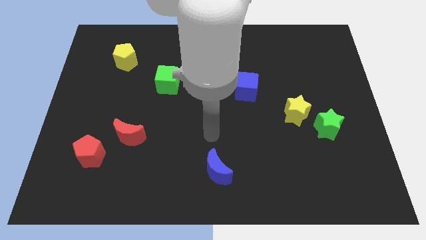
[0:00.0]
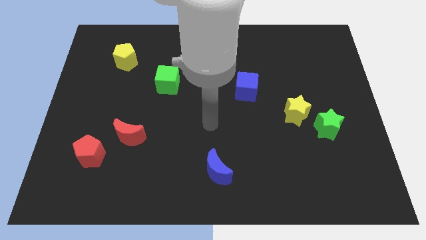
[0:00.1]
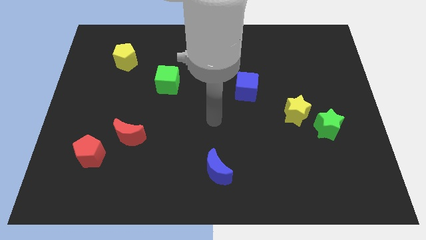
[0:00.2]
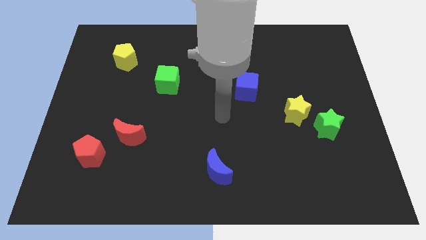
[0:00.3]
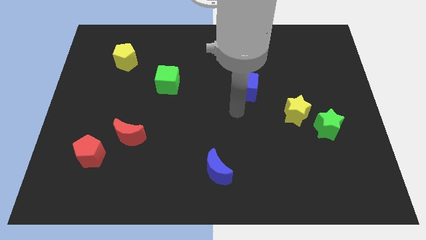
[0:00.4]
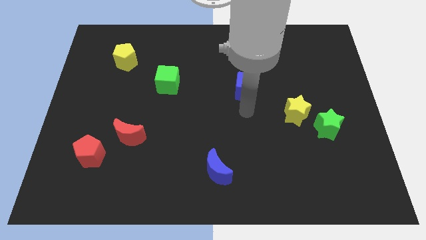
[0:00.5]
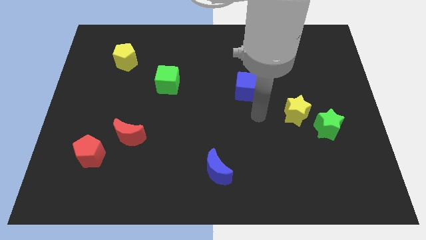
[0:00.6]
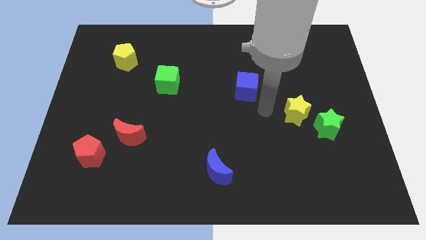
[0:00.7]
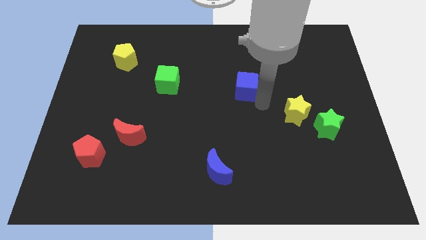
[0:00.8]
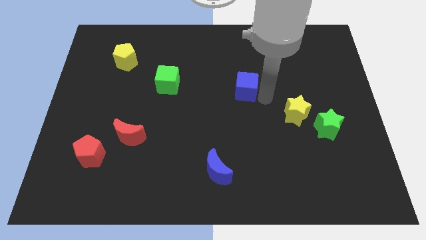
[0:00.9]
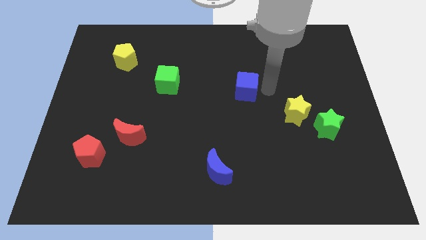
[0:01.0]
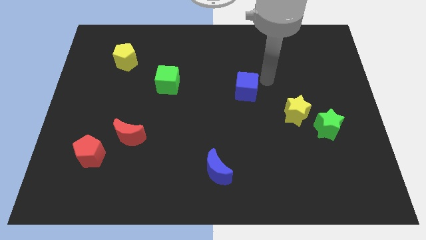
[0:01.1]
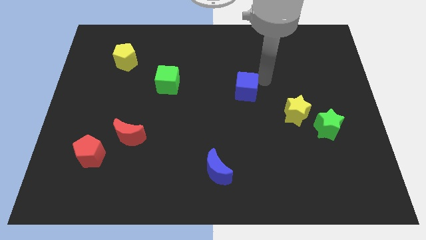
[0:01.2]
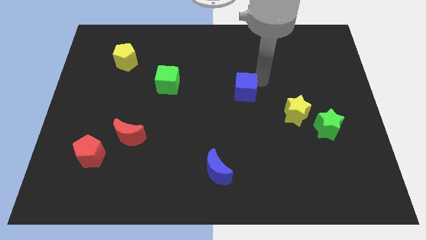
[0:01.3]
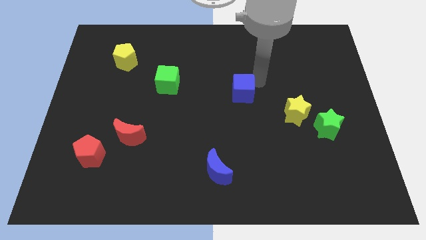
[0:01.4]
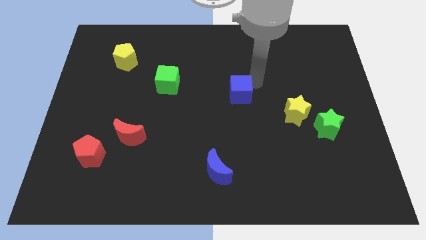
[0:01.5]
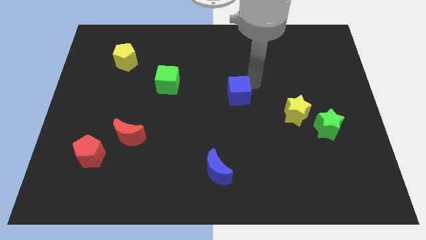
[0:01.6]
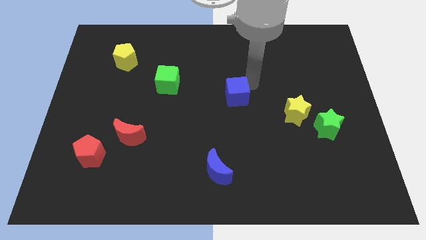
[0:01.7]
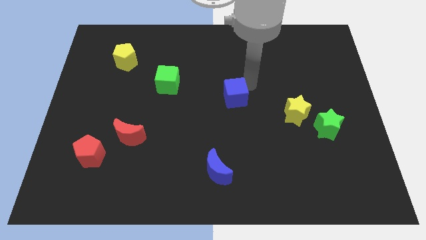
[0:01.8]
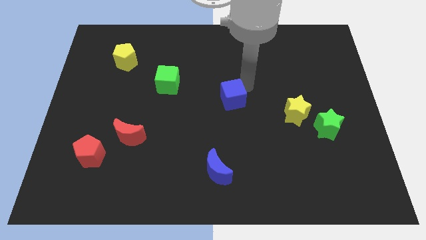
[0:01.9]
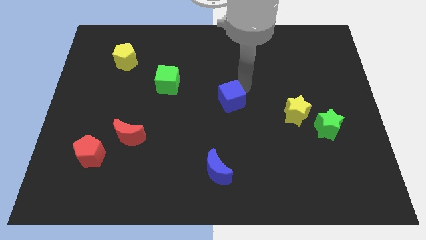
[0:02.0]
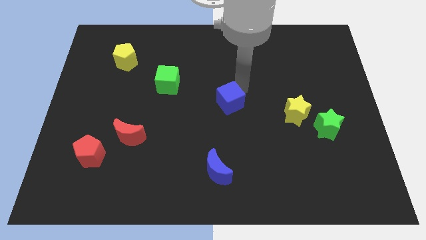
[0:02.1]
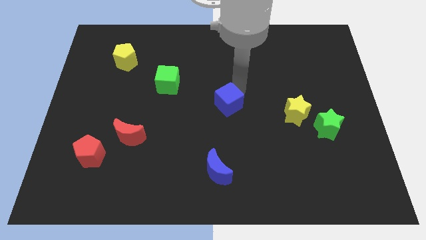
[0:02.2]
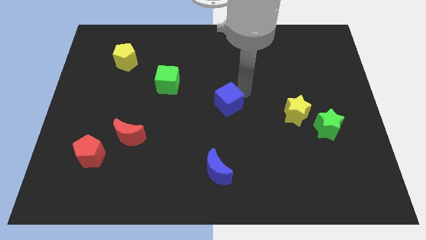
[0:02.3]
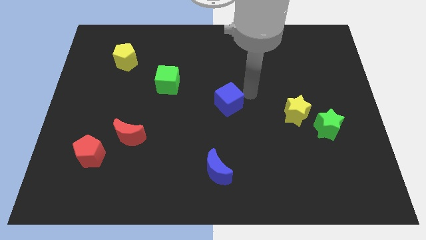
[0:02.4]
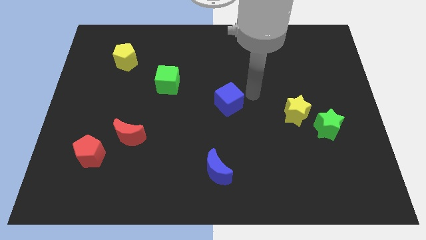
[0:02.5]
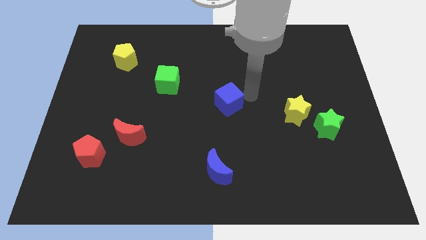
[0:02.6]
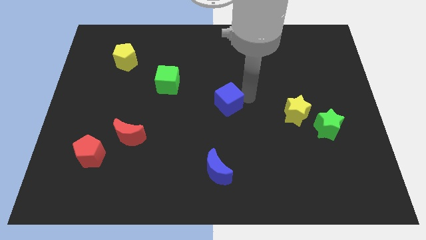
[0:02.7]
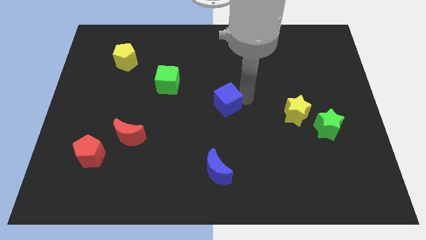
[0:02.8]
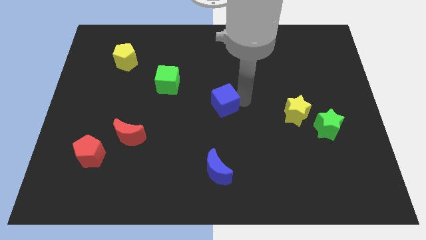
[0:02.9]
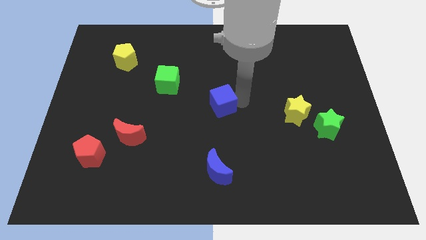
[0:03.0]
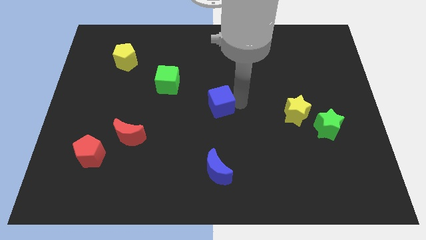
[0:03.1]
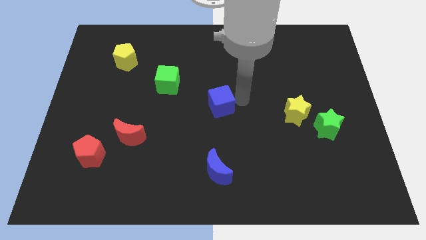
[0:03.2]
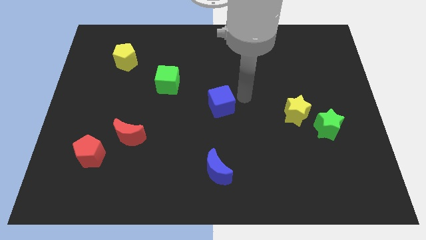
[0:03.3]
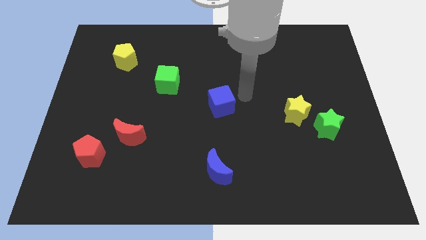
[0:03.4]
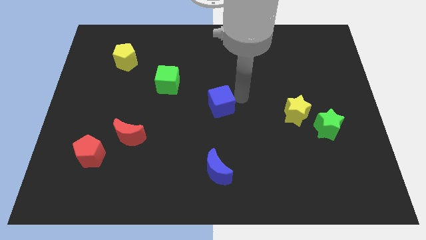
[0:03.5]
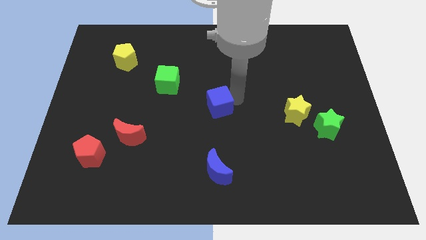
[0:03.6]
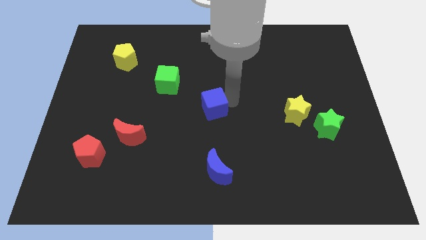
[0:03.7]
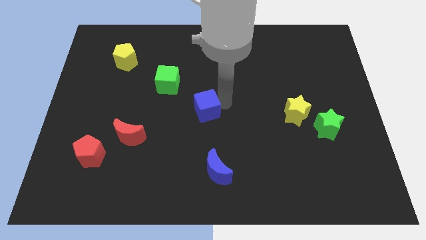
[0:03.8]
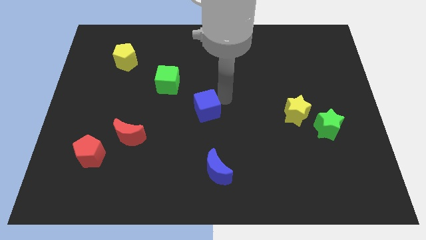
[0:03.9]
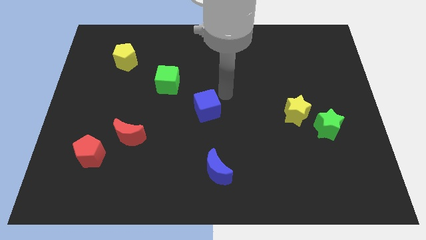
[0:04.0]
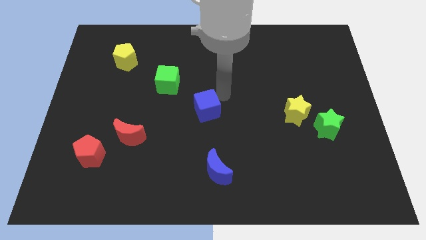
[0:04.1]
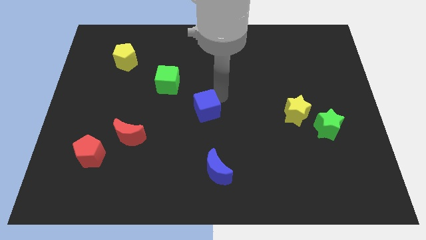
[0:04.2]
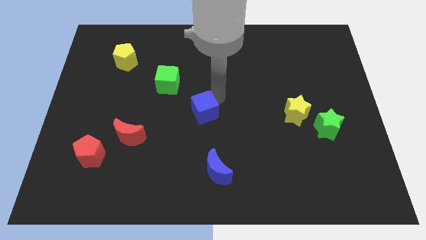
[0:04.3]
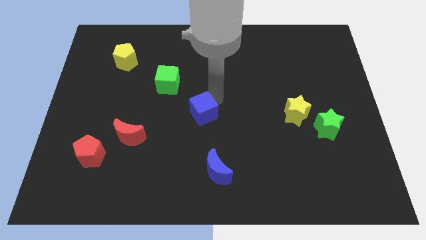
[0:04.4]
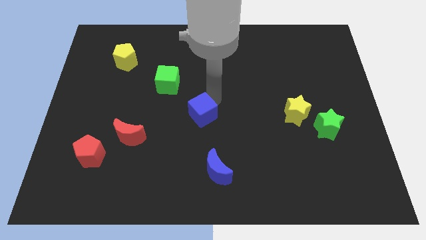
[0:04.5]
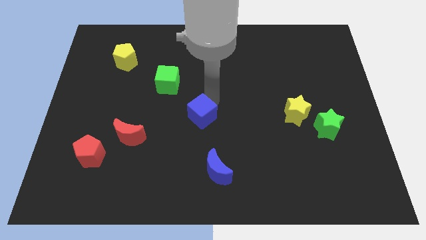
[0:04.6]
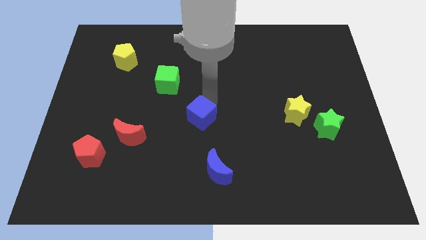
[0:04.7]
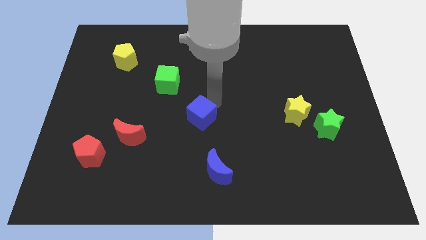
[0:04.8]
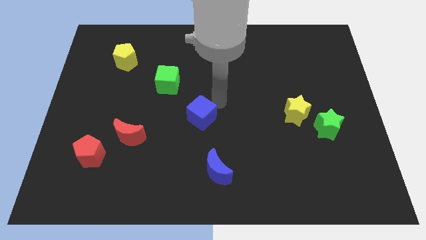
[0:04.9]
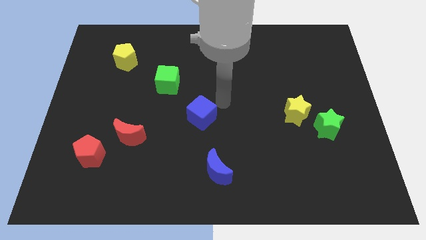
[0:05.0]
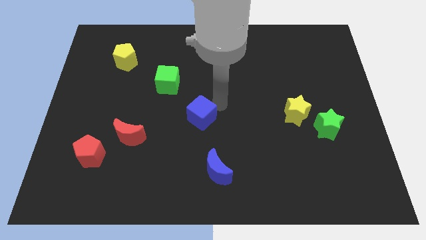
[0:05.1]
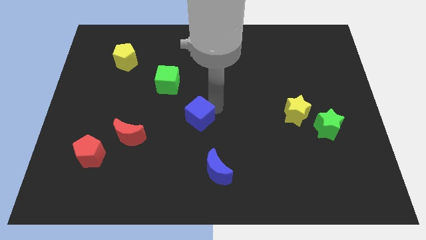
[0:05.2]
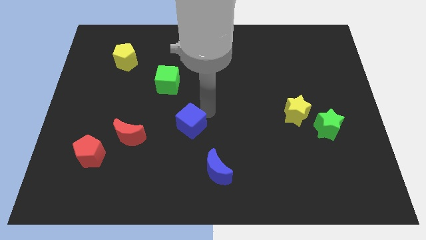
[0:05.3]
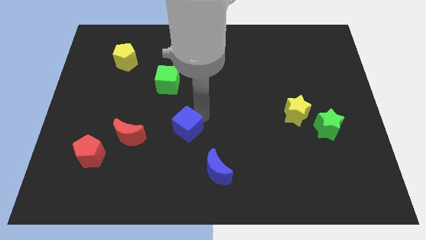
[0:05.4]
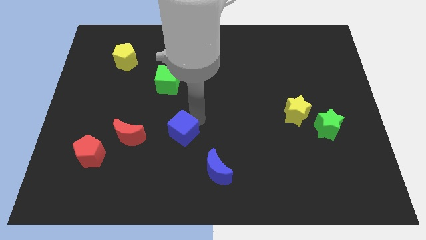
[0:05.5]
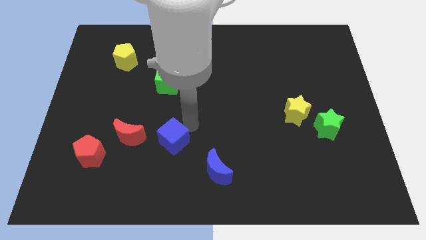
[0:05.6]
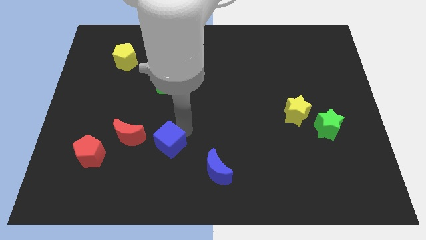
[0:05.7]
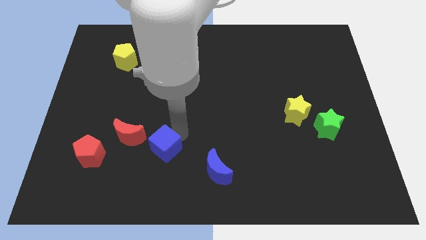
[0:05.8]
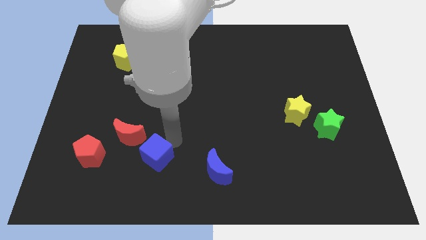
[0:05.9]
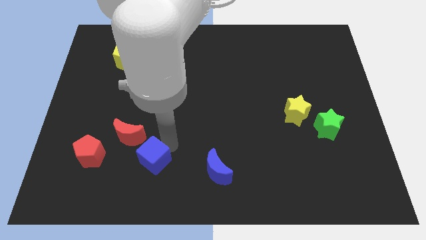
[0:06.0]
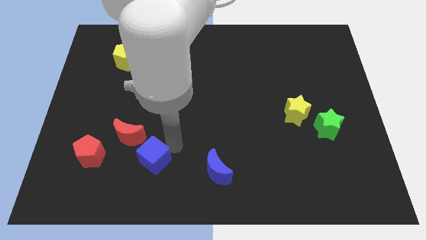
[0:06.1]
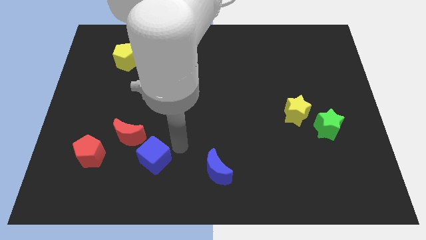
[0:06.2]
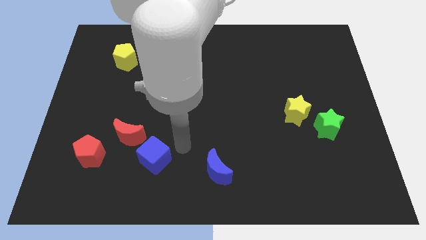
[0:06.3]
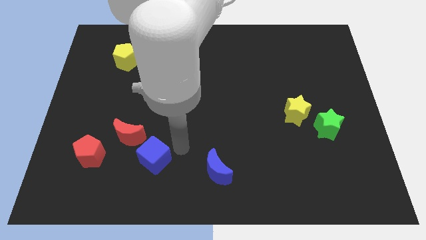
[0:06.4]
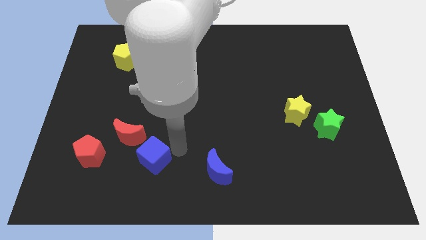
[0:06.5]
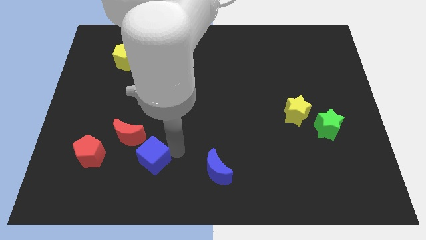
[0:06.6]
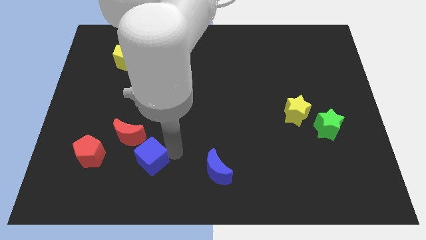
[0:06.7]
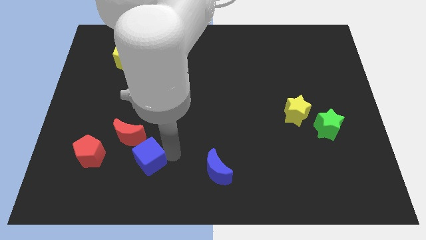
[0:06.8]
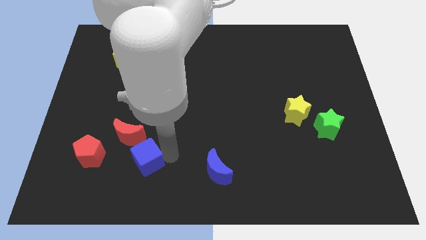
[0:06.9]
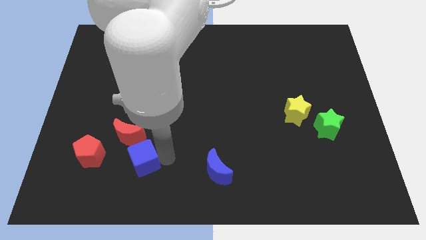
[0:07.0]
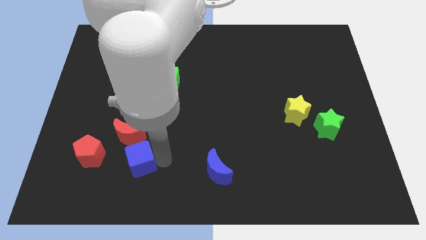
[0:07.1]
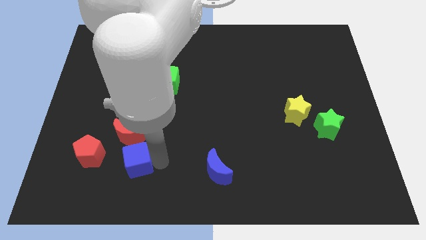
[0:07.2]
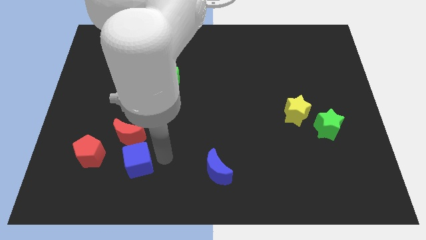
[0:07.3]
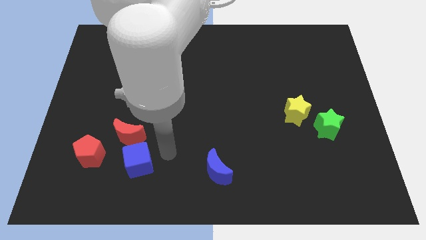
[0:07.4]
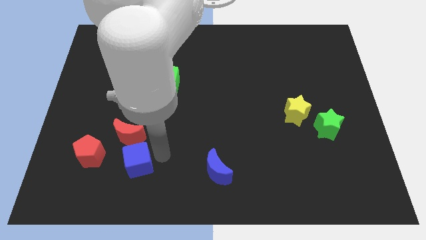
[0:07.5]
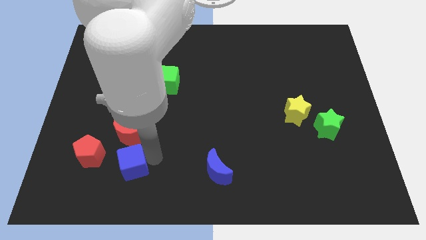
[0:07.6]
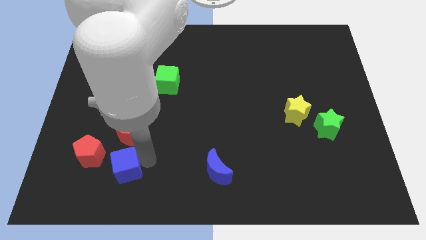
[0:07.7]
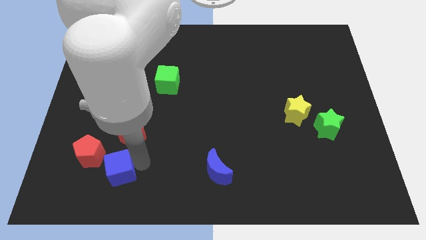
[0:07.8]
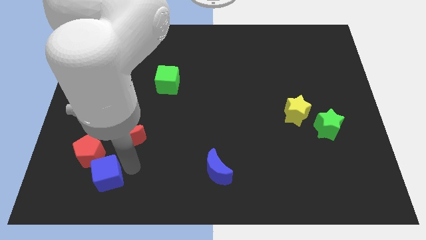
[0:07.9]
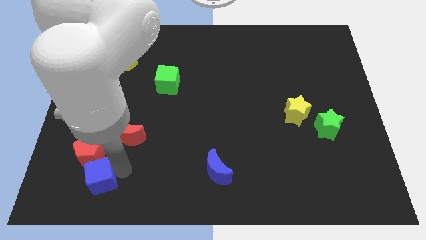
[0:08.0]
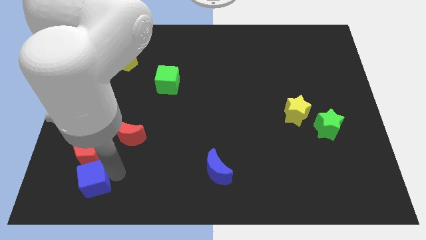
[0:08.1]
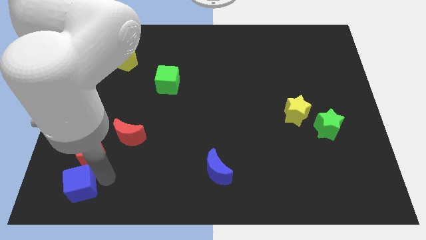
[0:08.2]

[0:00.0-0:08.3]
move the blue cube to the bottom left corner
